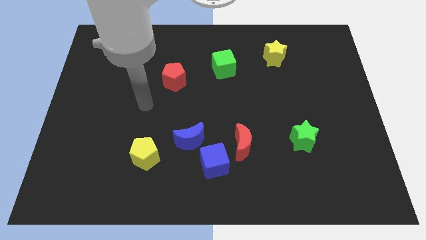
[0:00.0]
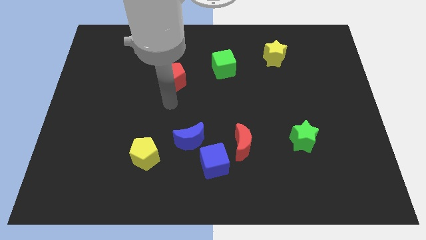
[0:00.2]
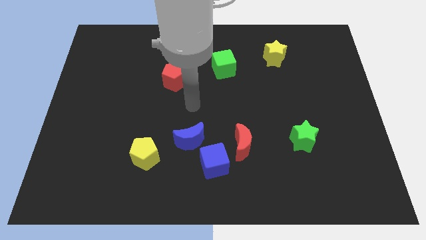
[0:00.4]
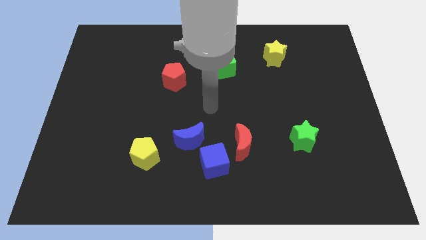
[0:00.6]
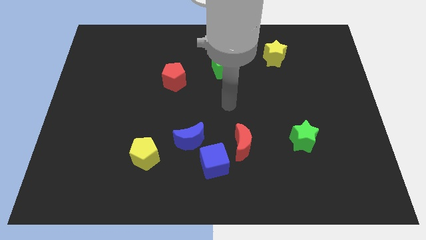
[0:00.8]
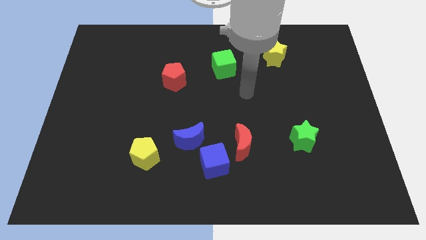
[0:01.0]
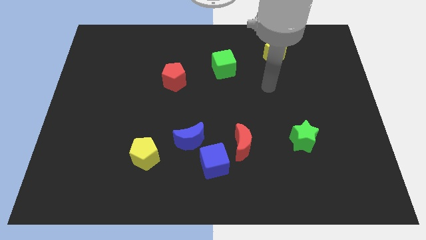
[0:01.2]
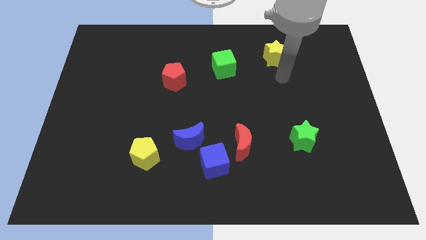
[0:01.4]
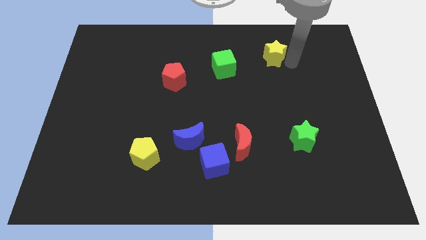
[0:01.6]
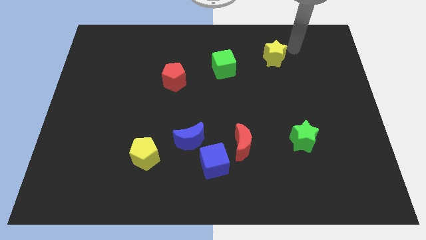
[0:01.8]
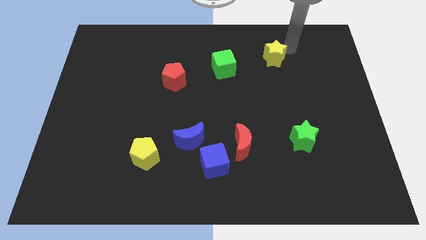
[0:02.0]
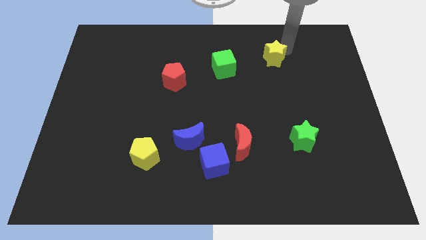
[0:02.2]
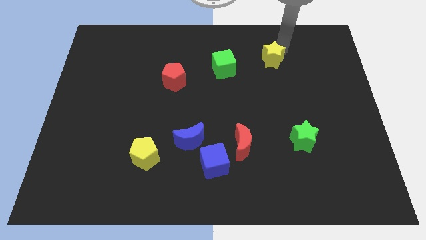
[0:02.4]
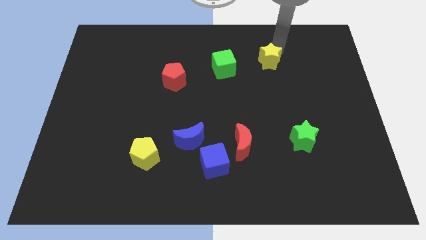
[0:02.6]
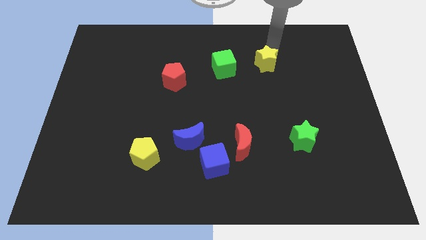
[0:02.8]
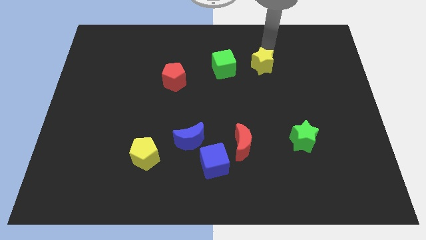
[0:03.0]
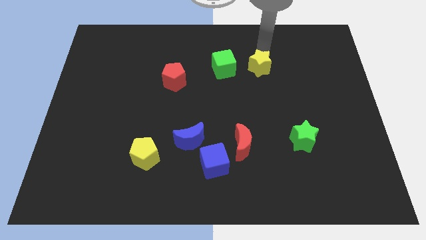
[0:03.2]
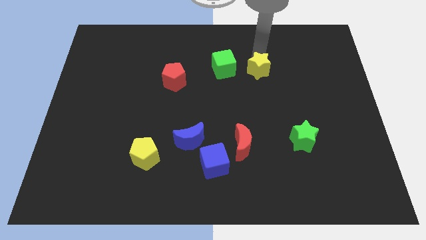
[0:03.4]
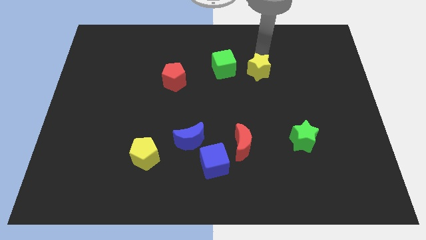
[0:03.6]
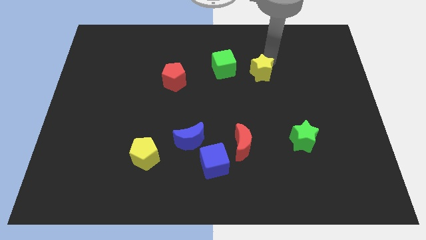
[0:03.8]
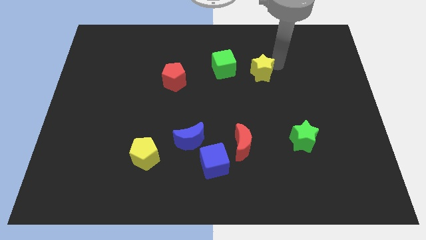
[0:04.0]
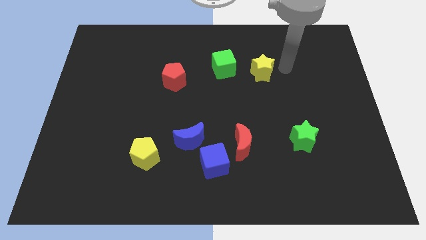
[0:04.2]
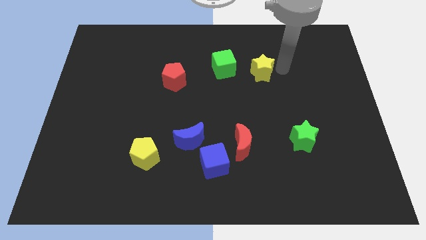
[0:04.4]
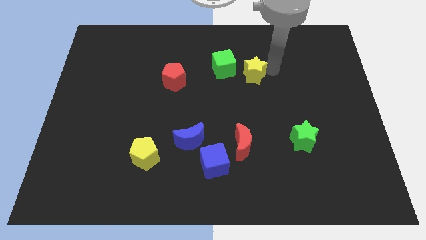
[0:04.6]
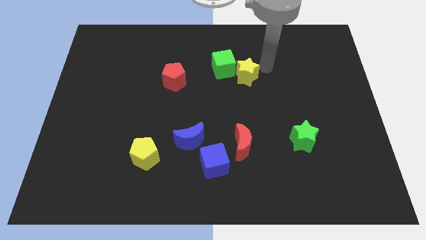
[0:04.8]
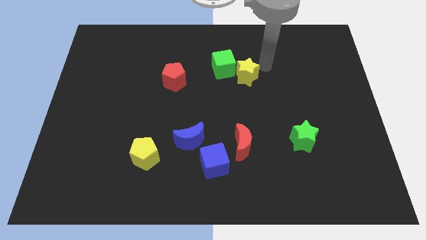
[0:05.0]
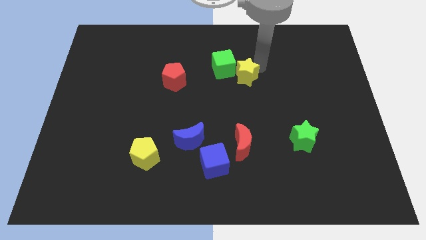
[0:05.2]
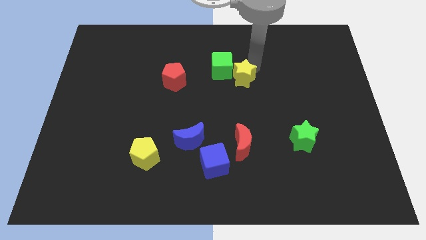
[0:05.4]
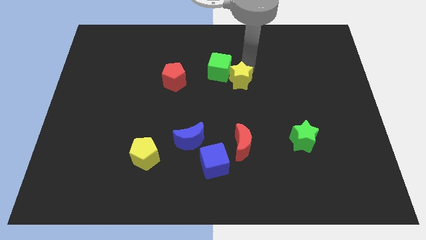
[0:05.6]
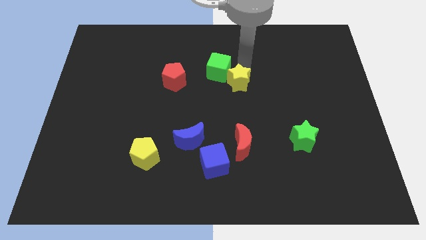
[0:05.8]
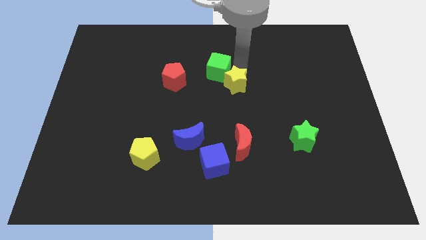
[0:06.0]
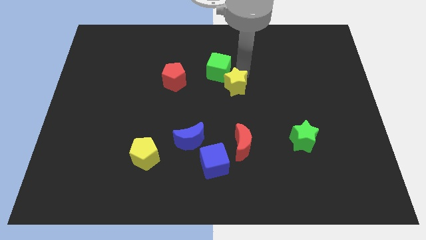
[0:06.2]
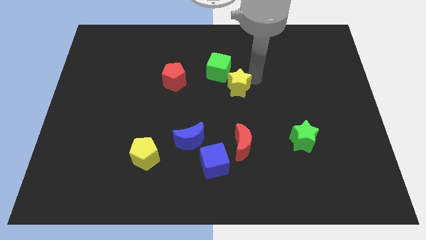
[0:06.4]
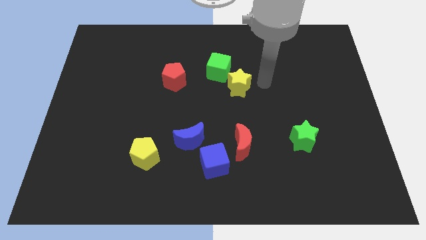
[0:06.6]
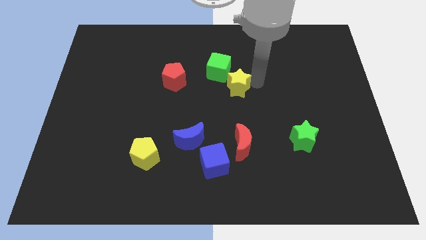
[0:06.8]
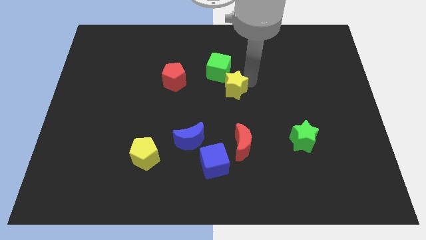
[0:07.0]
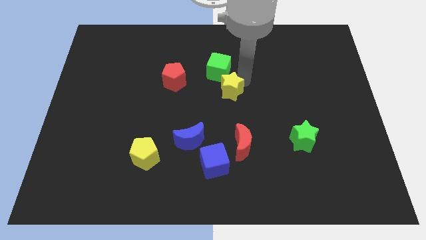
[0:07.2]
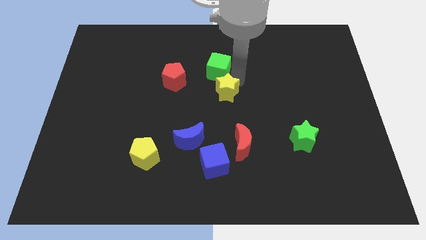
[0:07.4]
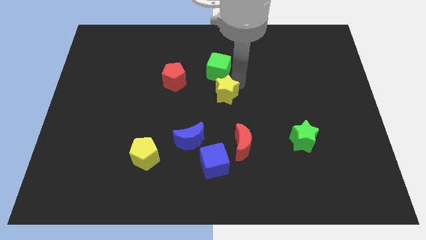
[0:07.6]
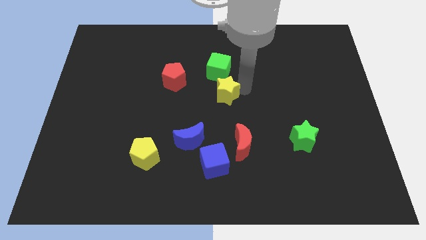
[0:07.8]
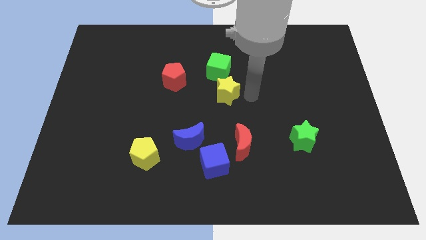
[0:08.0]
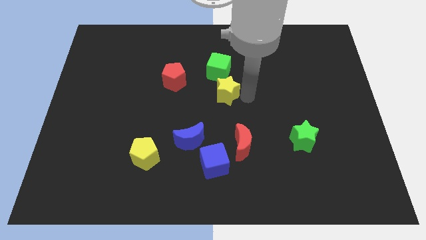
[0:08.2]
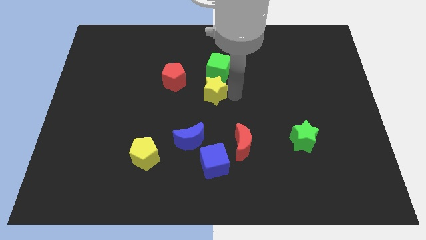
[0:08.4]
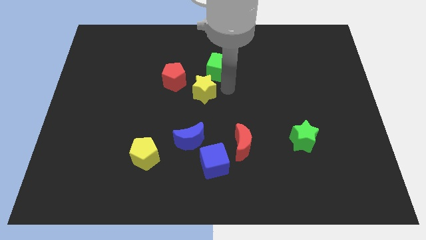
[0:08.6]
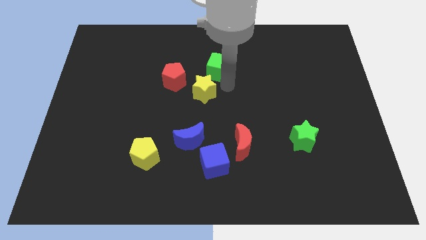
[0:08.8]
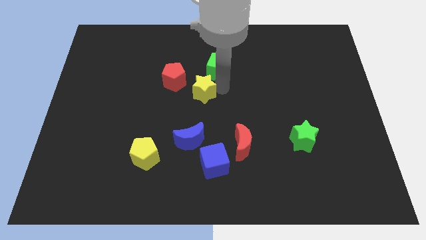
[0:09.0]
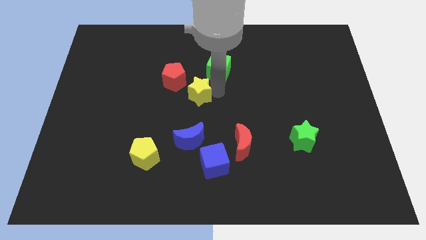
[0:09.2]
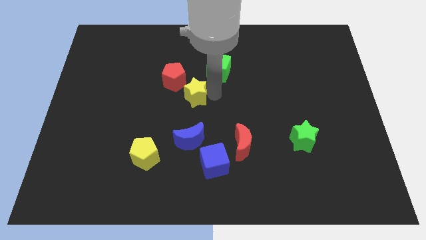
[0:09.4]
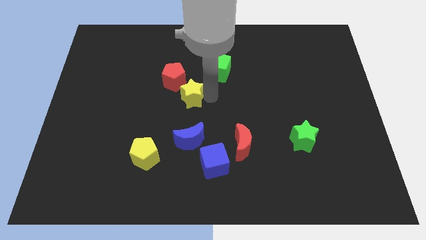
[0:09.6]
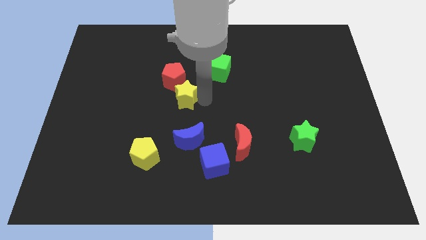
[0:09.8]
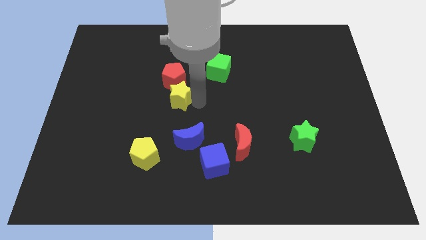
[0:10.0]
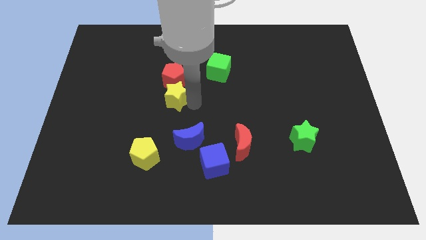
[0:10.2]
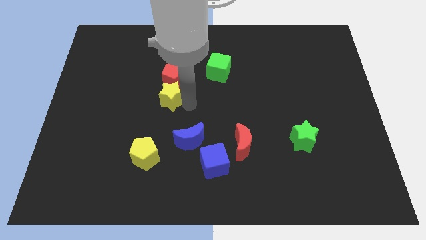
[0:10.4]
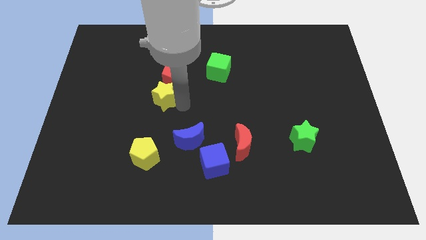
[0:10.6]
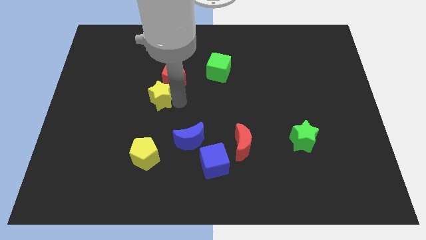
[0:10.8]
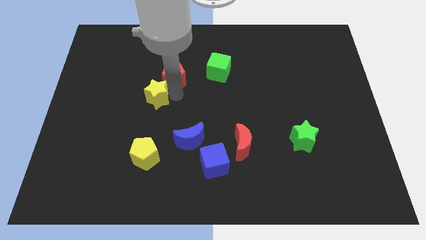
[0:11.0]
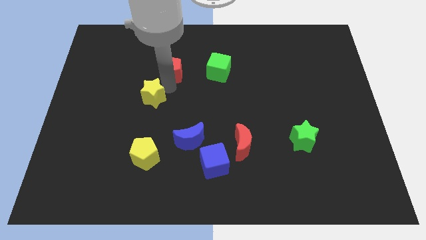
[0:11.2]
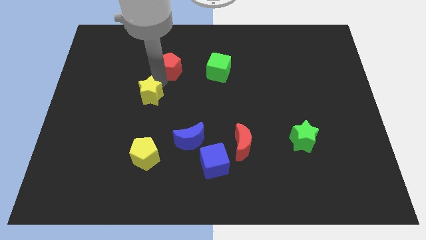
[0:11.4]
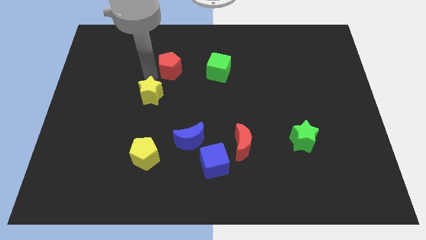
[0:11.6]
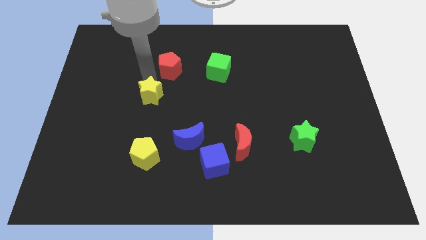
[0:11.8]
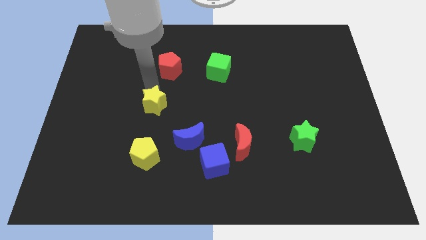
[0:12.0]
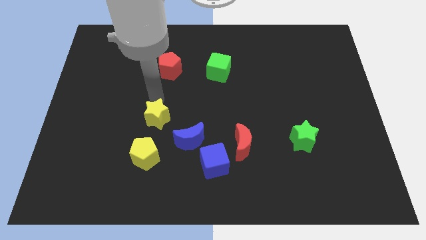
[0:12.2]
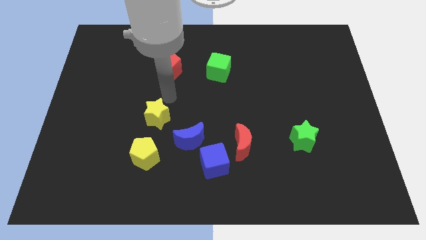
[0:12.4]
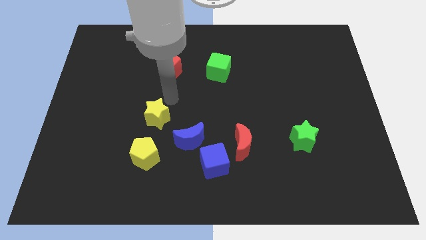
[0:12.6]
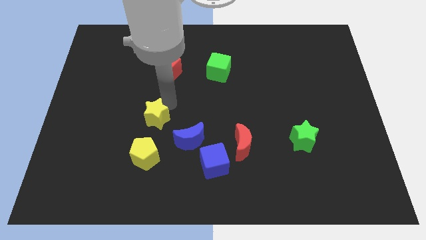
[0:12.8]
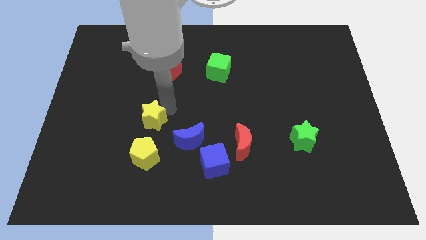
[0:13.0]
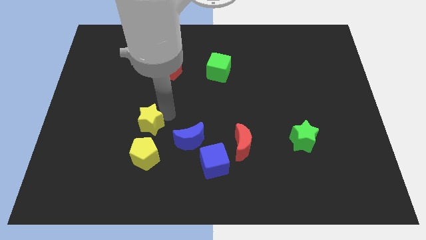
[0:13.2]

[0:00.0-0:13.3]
slide the yellow star to the left of the blue moon
